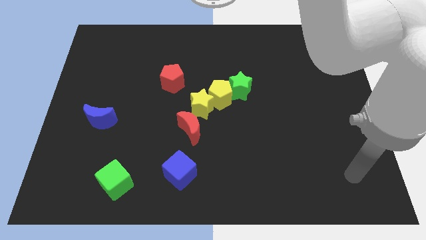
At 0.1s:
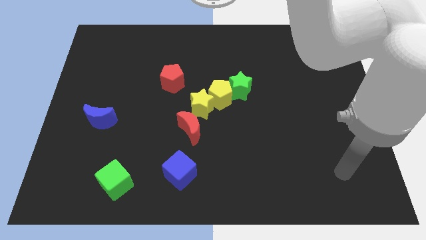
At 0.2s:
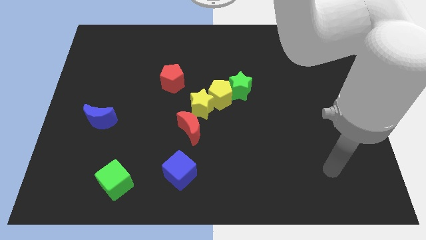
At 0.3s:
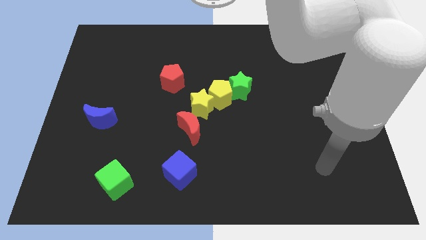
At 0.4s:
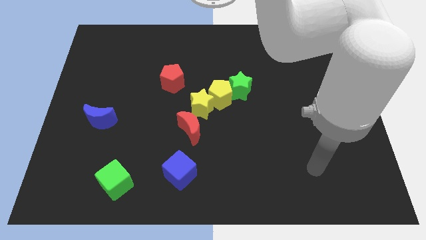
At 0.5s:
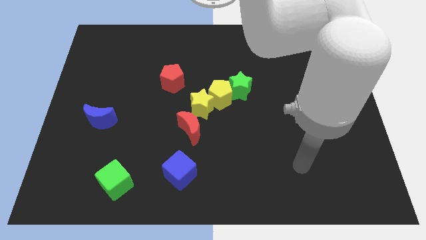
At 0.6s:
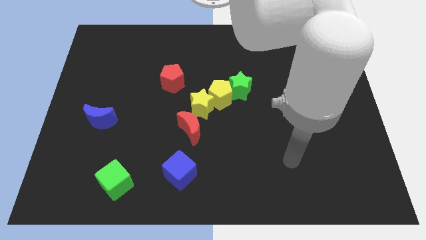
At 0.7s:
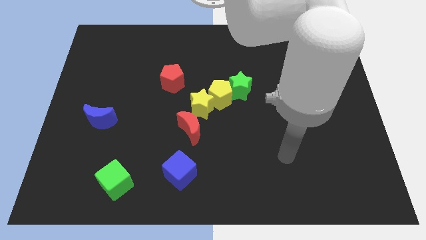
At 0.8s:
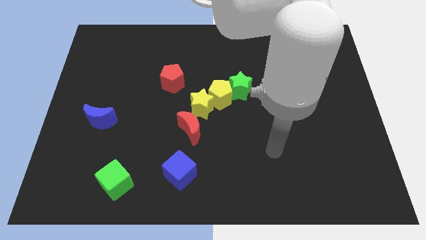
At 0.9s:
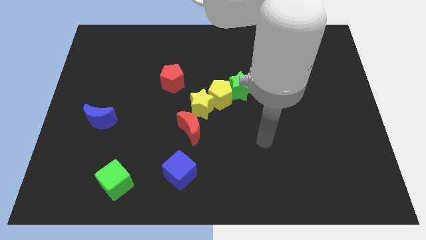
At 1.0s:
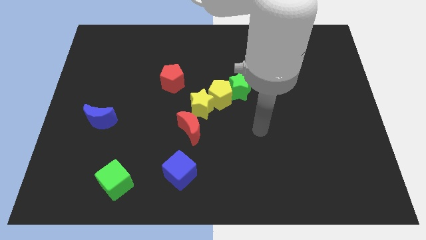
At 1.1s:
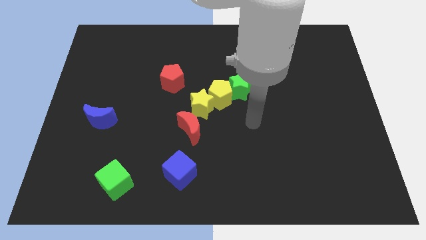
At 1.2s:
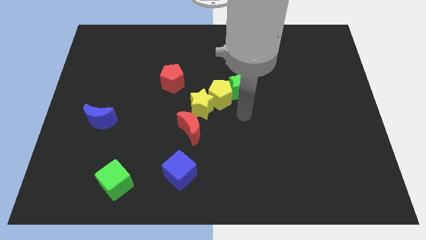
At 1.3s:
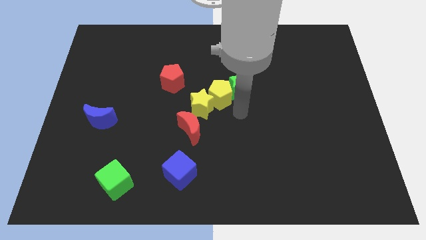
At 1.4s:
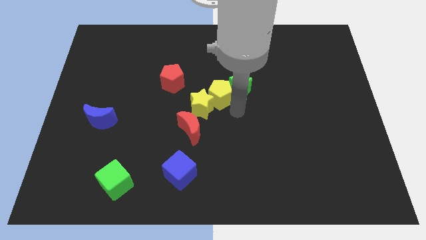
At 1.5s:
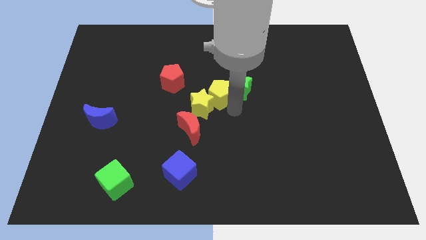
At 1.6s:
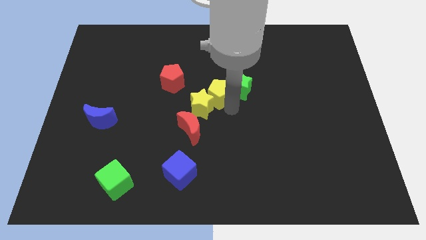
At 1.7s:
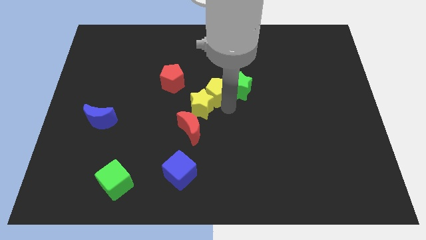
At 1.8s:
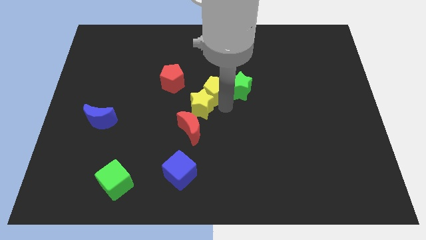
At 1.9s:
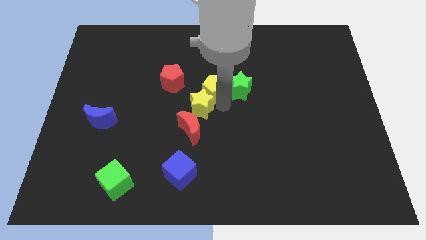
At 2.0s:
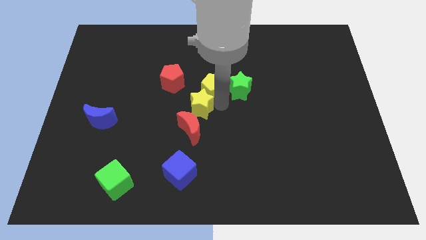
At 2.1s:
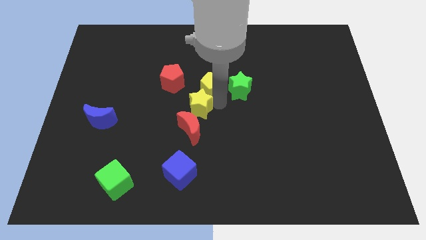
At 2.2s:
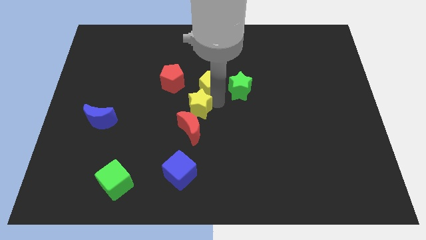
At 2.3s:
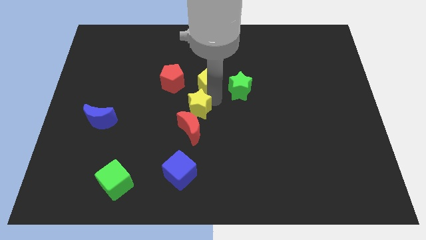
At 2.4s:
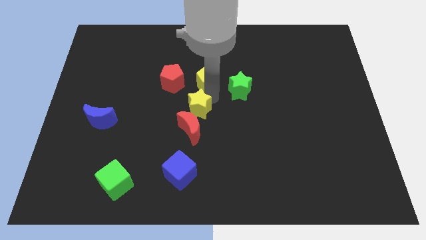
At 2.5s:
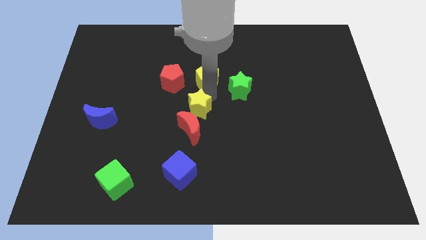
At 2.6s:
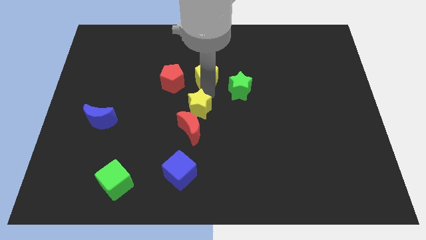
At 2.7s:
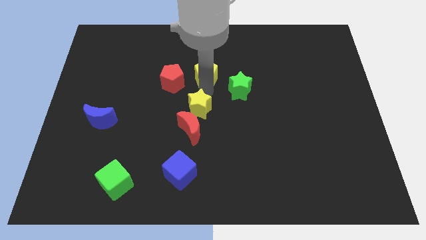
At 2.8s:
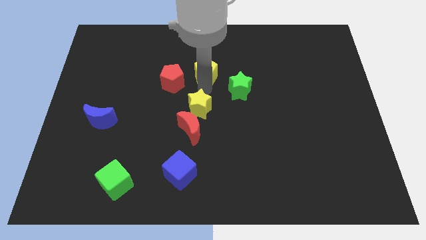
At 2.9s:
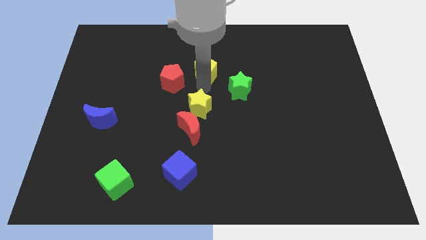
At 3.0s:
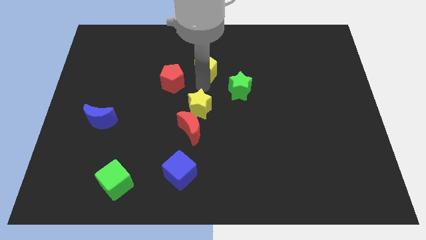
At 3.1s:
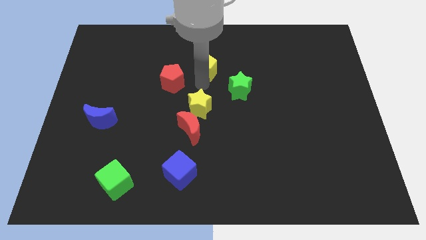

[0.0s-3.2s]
separate the yellow pentagon from the yellow star and green star

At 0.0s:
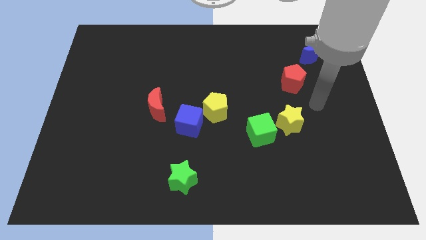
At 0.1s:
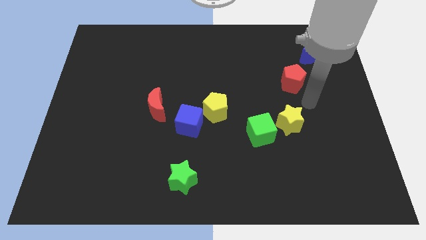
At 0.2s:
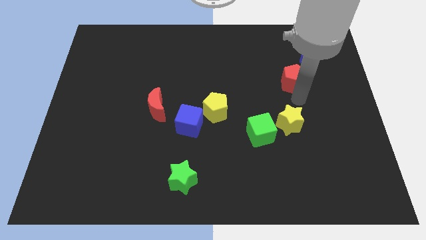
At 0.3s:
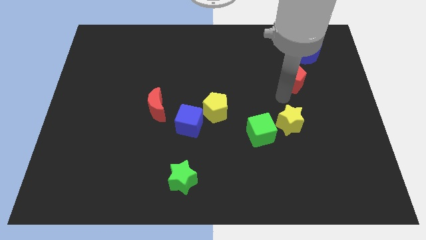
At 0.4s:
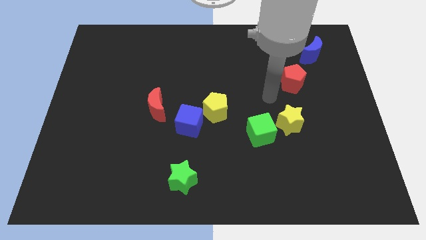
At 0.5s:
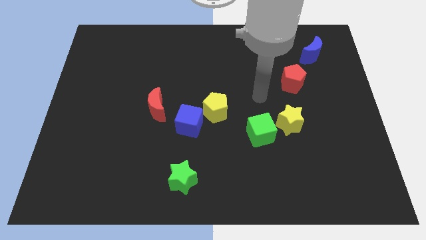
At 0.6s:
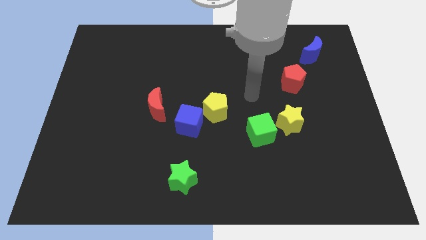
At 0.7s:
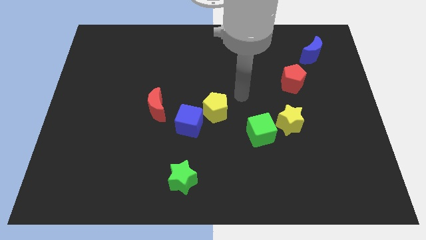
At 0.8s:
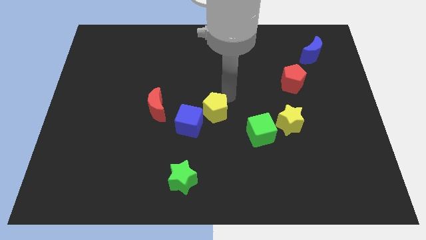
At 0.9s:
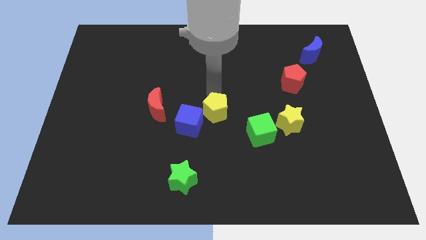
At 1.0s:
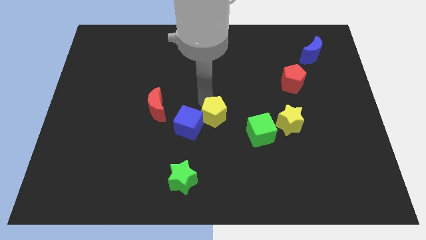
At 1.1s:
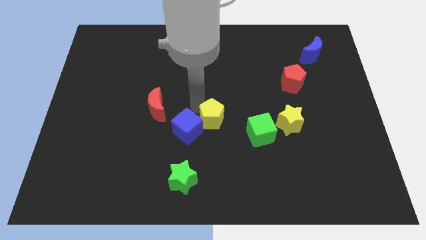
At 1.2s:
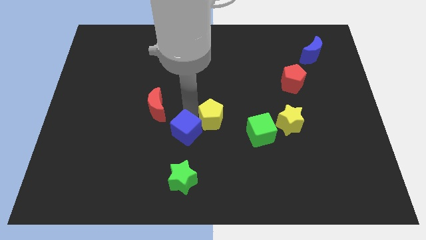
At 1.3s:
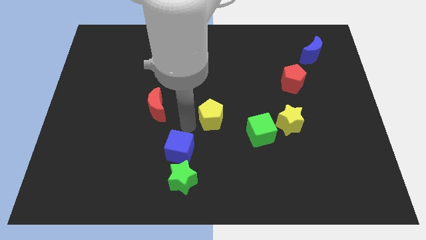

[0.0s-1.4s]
move the yellow pentagon away from the blue cube

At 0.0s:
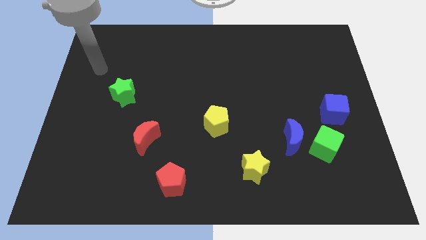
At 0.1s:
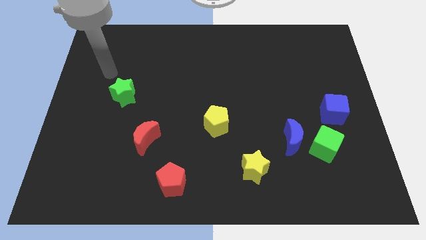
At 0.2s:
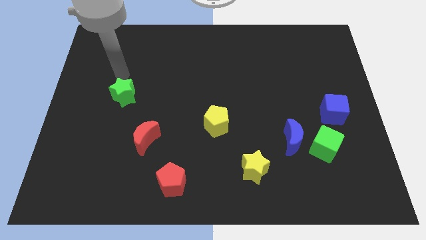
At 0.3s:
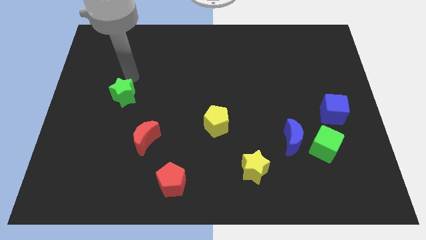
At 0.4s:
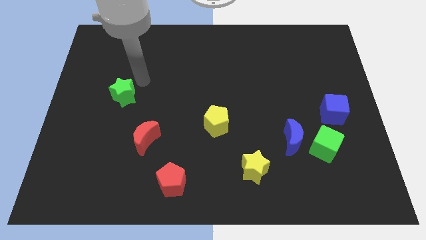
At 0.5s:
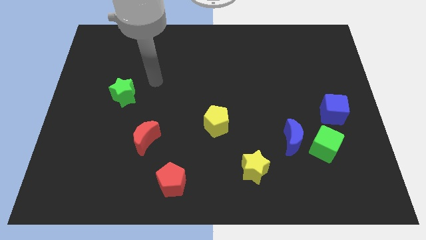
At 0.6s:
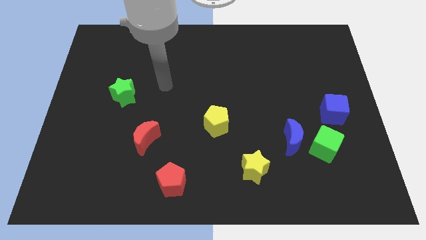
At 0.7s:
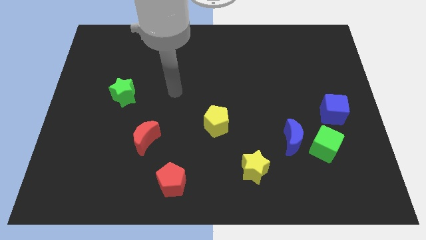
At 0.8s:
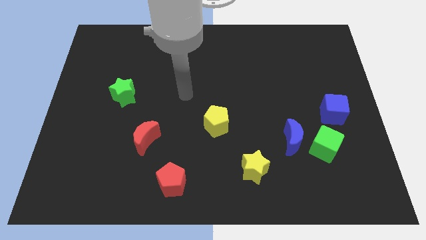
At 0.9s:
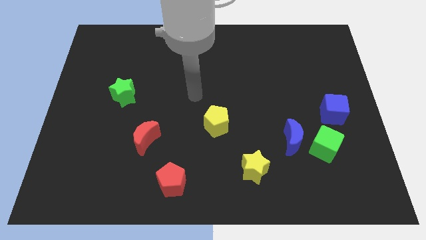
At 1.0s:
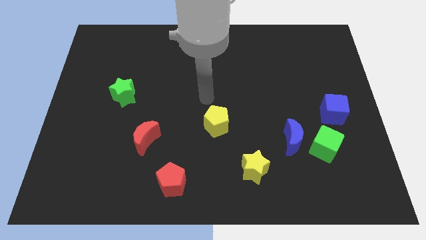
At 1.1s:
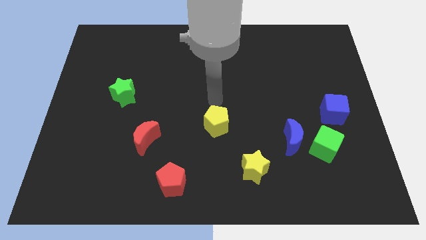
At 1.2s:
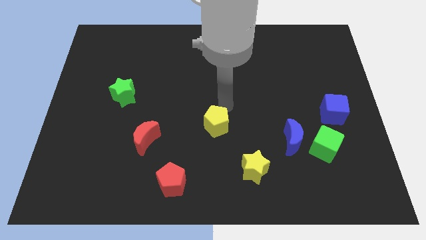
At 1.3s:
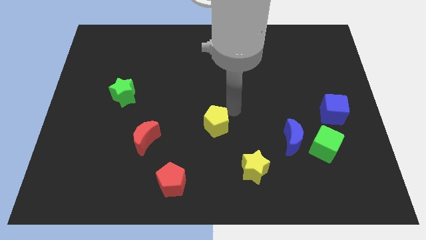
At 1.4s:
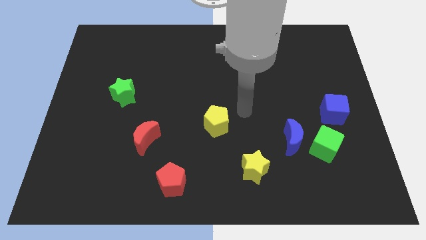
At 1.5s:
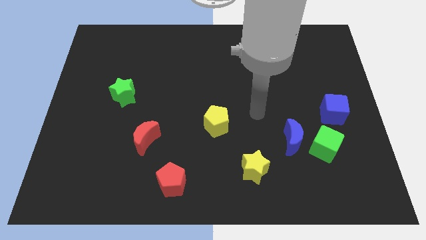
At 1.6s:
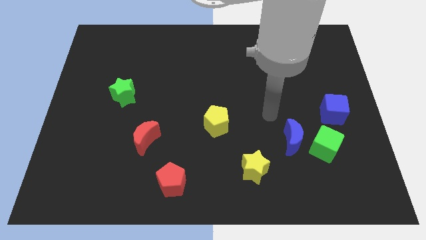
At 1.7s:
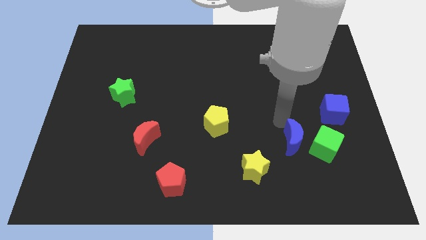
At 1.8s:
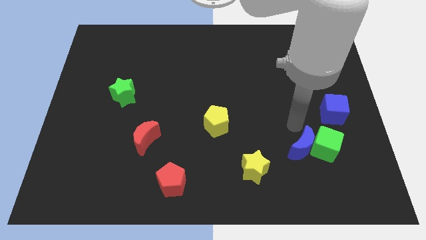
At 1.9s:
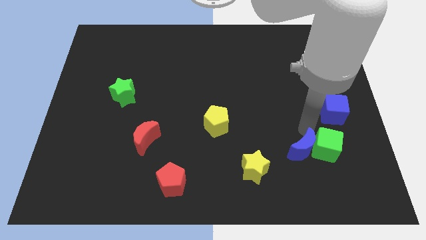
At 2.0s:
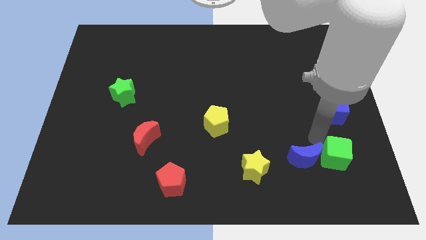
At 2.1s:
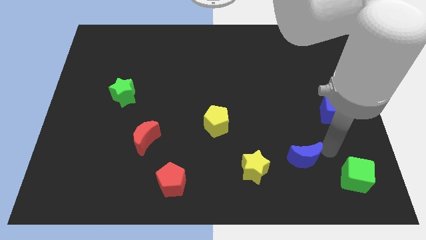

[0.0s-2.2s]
pull the blue moon apart from the green cube

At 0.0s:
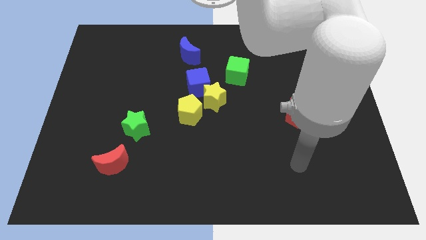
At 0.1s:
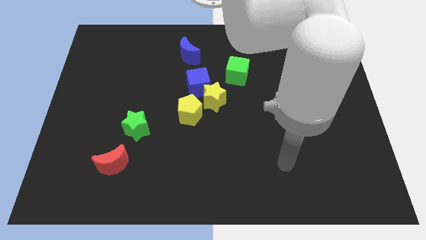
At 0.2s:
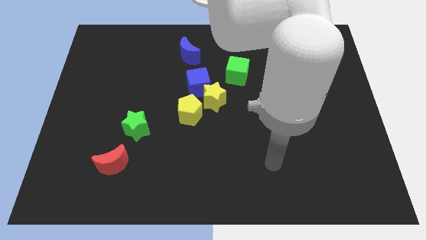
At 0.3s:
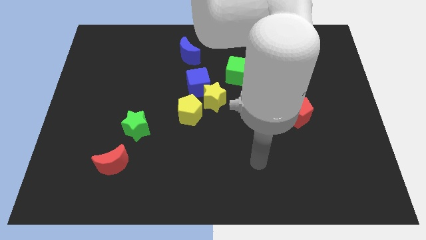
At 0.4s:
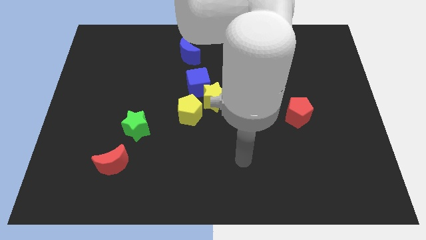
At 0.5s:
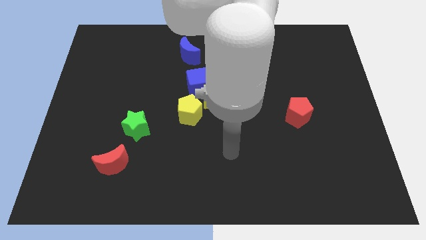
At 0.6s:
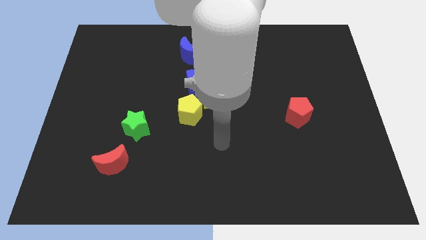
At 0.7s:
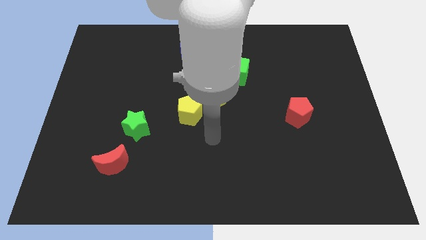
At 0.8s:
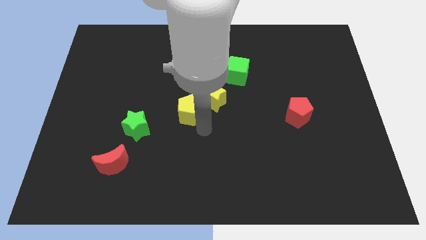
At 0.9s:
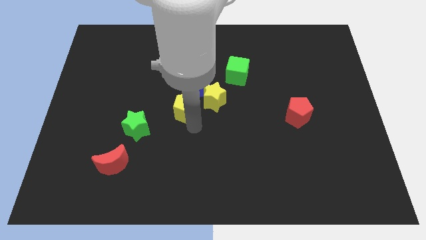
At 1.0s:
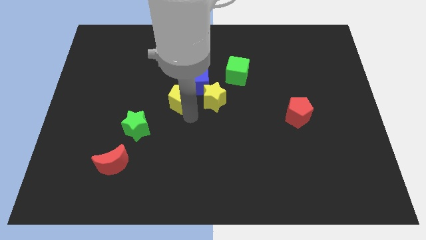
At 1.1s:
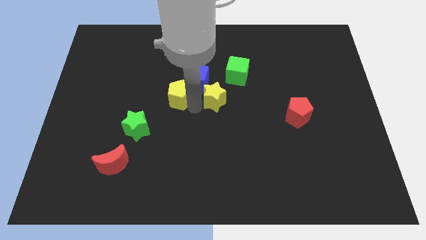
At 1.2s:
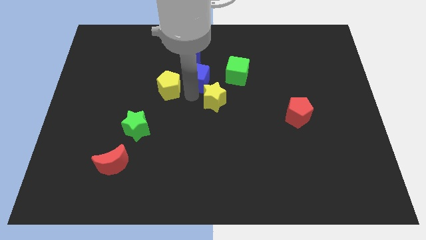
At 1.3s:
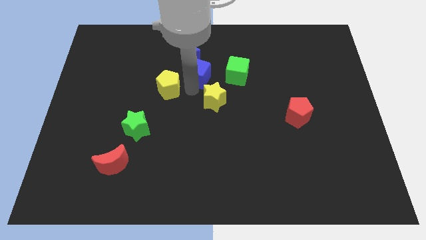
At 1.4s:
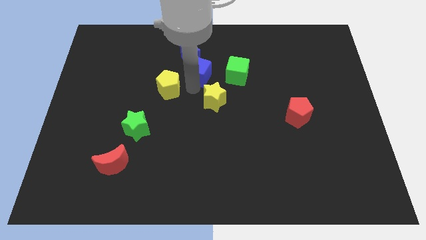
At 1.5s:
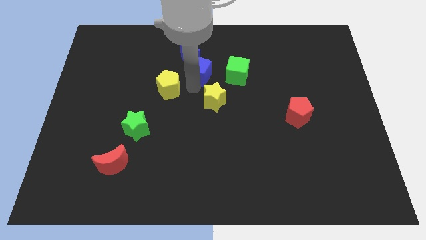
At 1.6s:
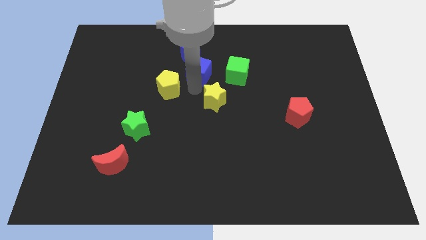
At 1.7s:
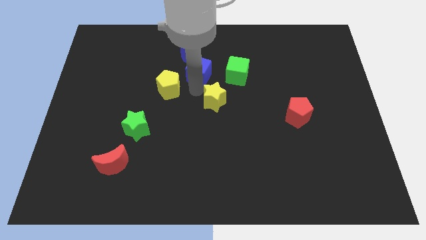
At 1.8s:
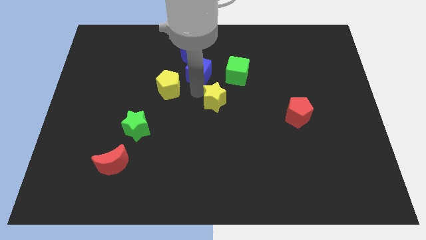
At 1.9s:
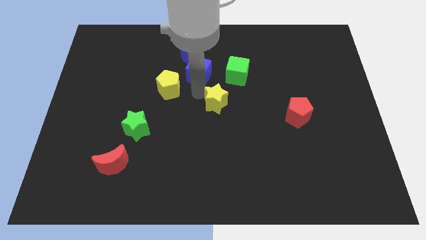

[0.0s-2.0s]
pull the yellow star apart from the blue cube and yellow pentagon

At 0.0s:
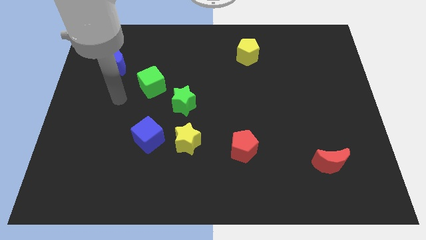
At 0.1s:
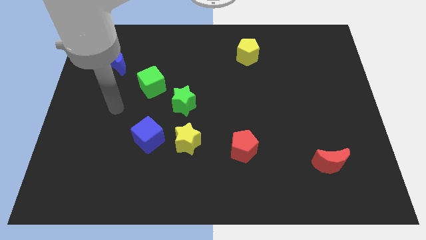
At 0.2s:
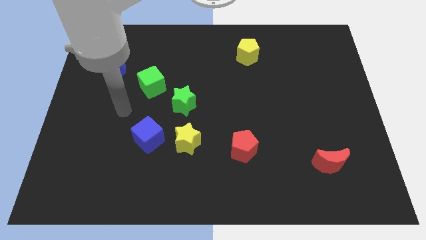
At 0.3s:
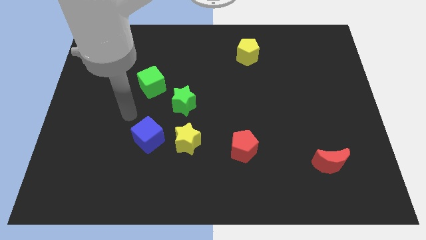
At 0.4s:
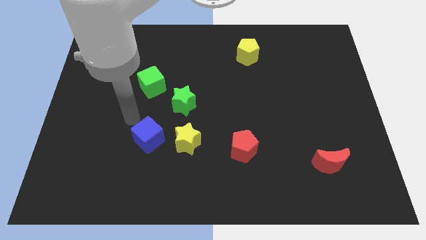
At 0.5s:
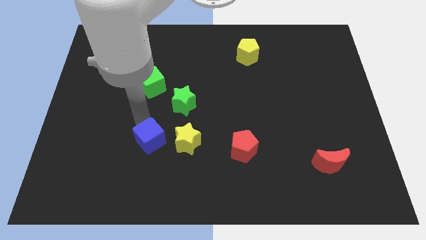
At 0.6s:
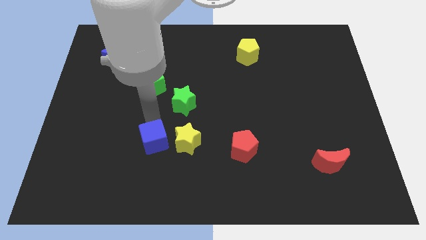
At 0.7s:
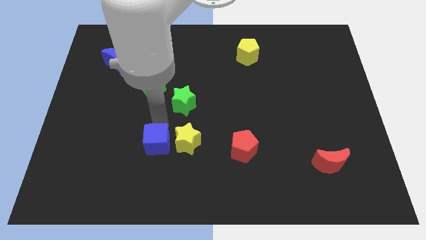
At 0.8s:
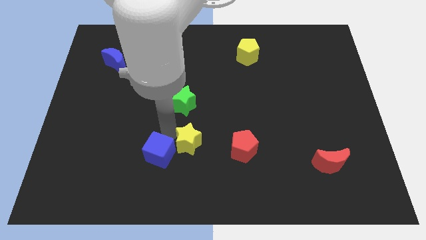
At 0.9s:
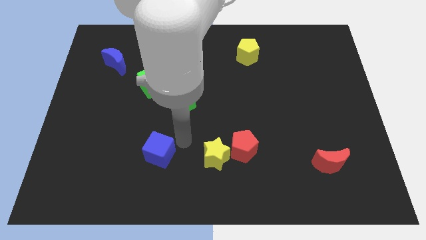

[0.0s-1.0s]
separate the blue cube from the yellow star
